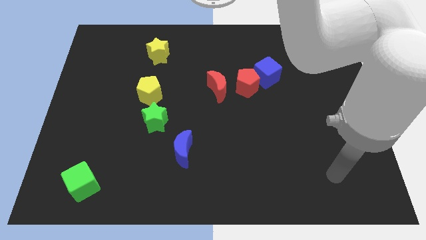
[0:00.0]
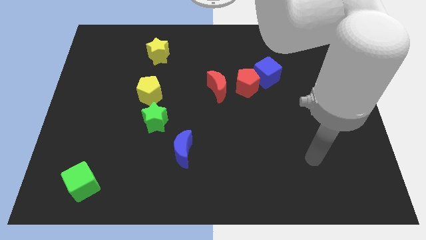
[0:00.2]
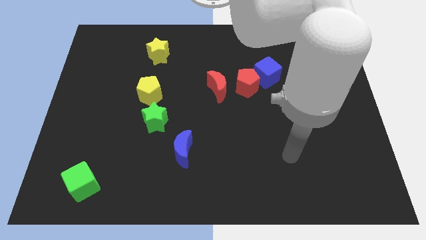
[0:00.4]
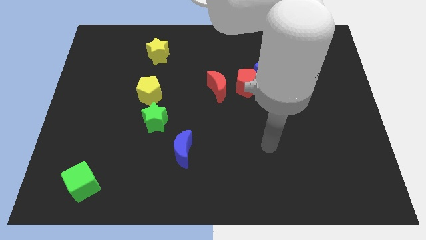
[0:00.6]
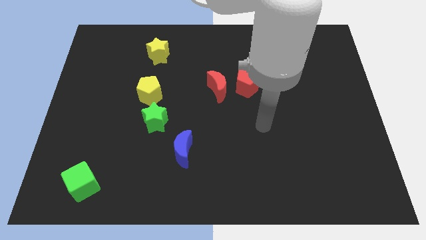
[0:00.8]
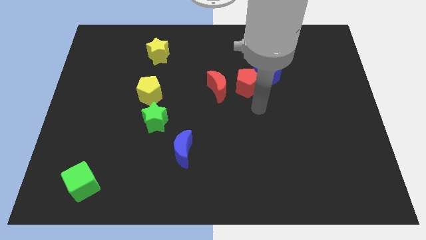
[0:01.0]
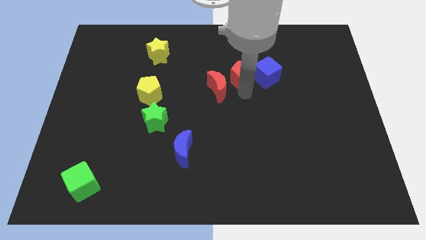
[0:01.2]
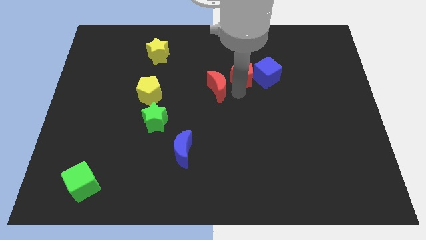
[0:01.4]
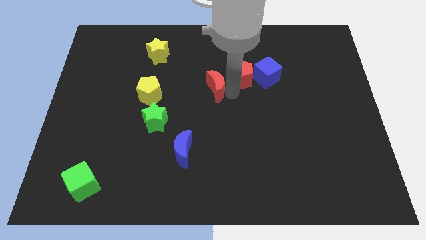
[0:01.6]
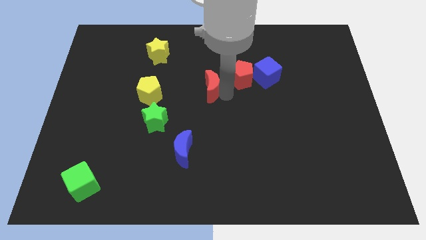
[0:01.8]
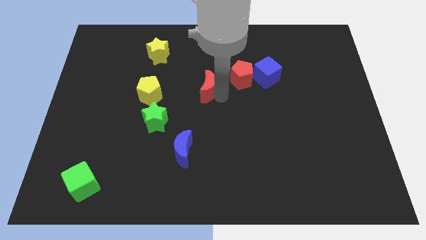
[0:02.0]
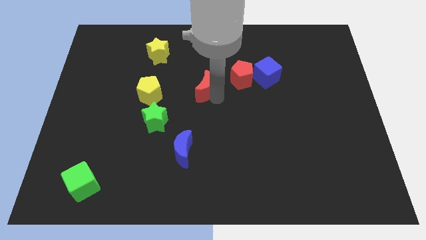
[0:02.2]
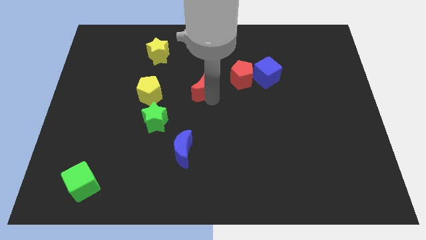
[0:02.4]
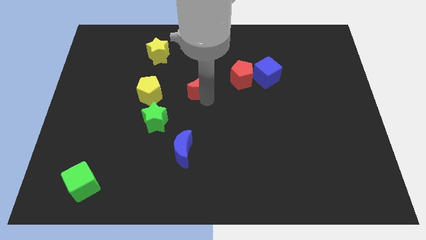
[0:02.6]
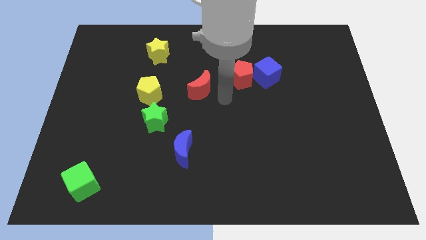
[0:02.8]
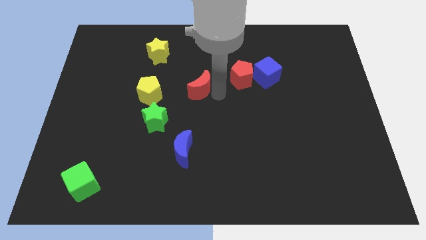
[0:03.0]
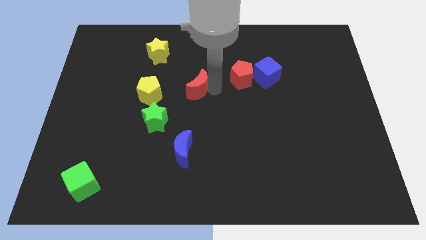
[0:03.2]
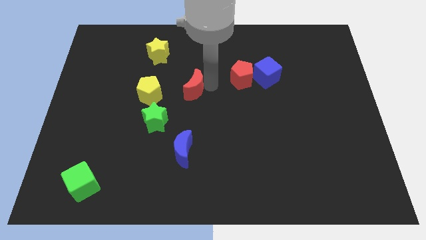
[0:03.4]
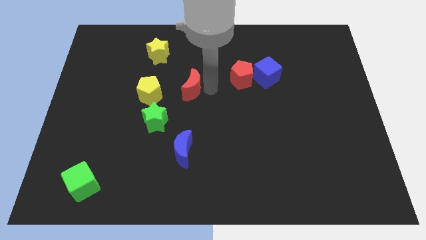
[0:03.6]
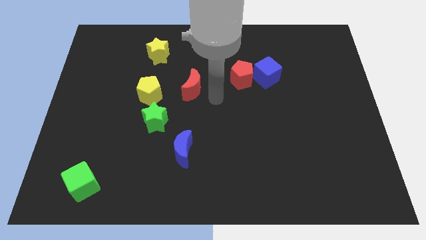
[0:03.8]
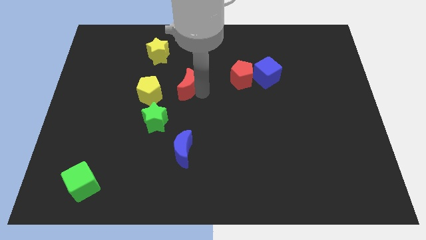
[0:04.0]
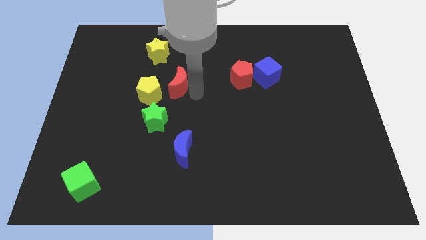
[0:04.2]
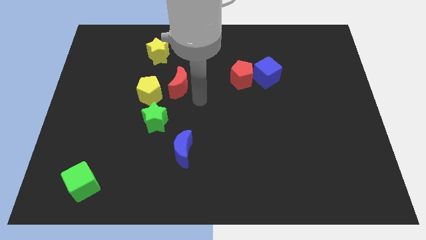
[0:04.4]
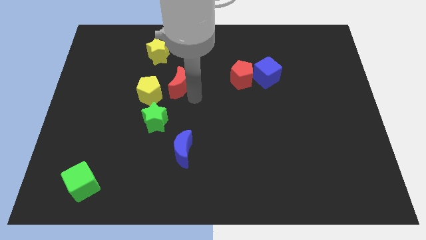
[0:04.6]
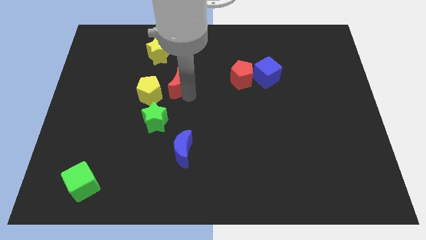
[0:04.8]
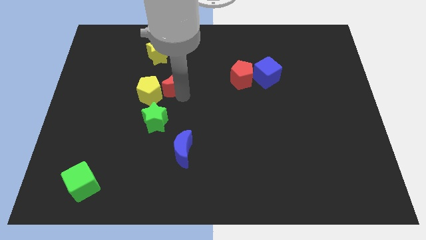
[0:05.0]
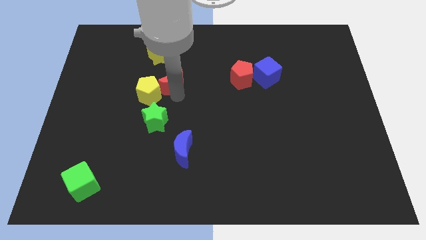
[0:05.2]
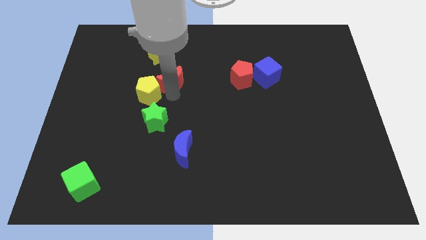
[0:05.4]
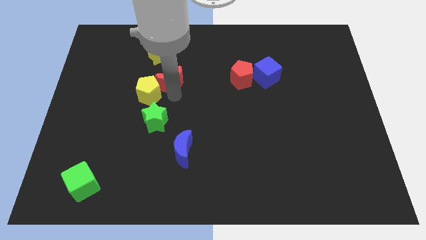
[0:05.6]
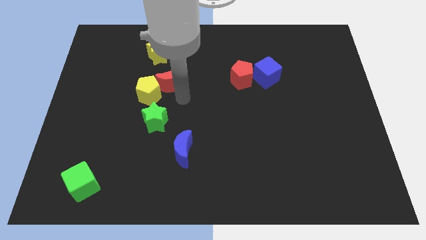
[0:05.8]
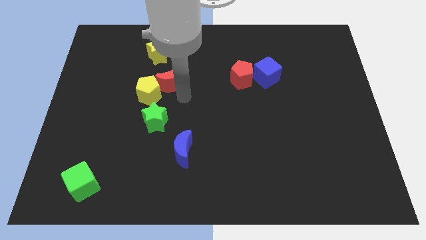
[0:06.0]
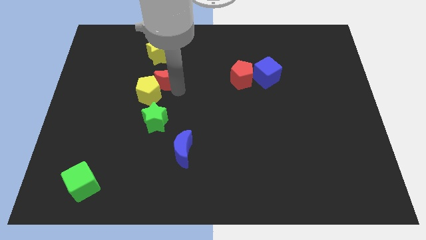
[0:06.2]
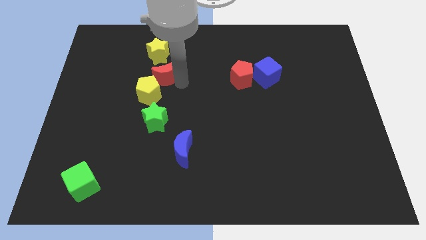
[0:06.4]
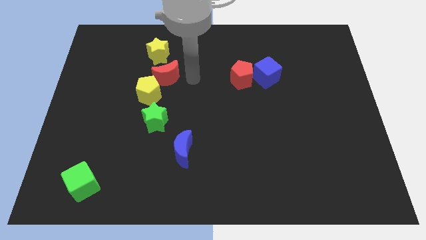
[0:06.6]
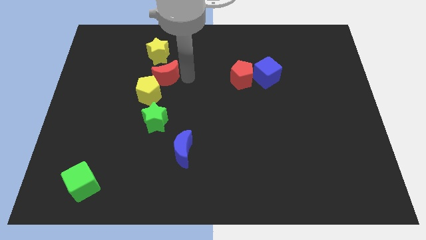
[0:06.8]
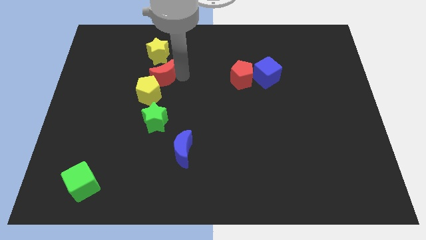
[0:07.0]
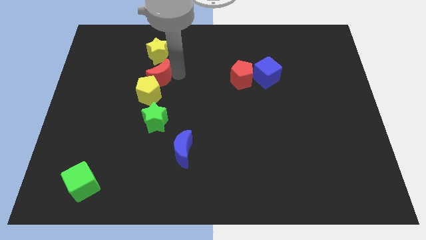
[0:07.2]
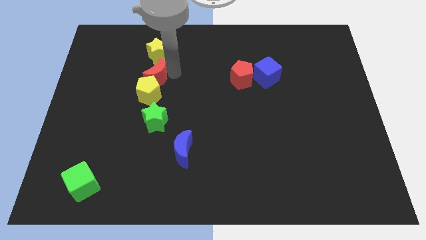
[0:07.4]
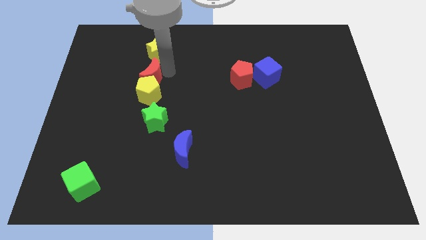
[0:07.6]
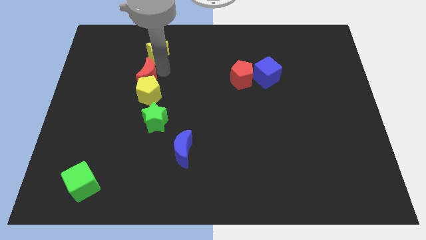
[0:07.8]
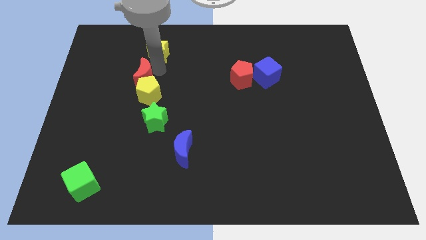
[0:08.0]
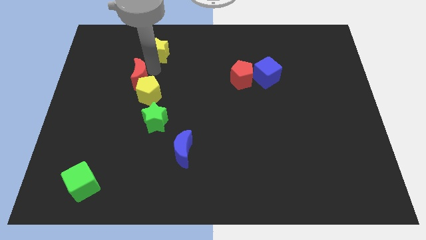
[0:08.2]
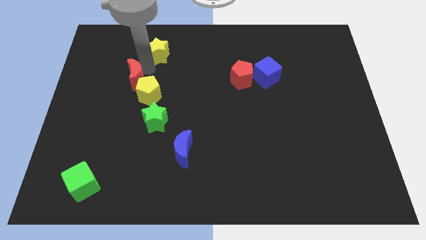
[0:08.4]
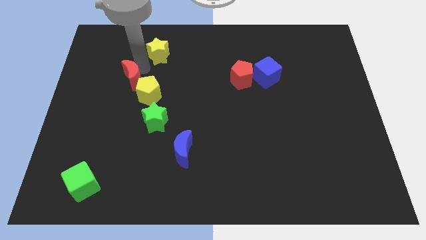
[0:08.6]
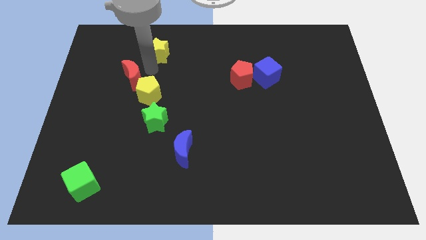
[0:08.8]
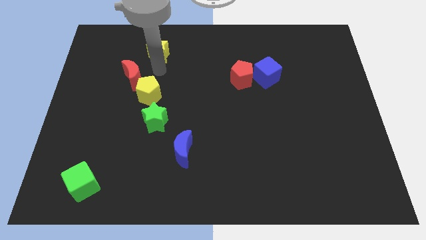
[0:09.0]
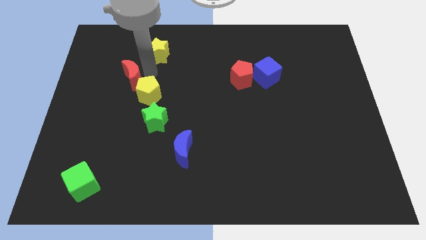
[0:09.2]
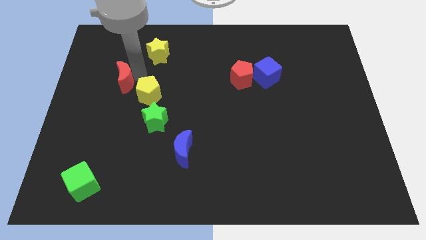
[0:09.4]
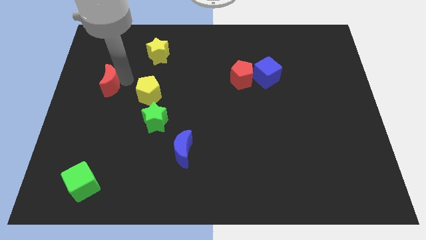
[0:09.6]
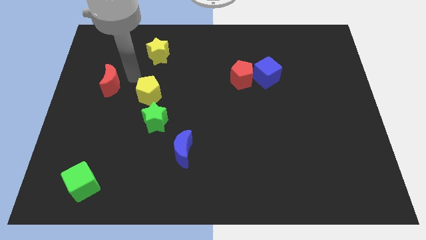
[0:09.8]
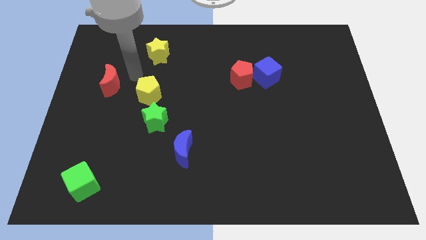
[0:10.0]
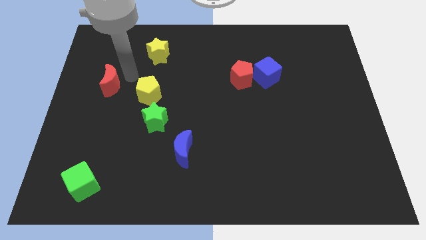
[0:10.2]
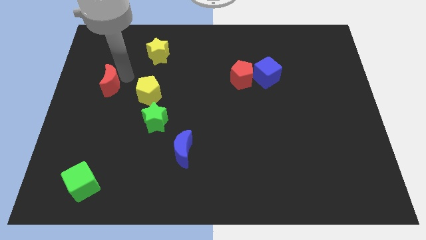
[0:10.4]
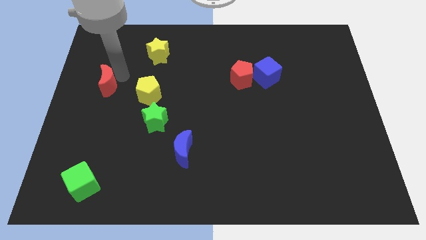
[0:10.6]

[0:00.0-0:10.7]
push the red moon to the center left
